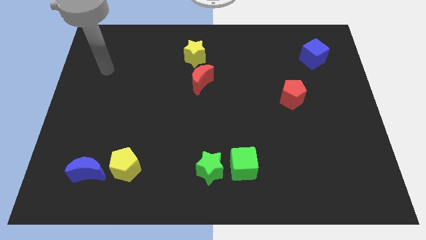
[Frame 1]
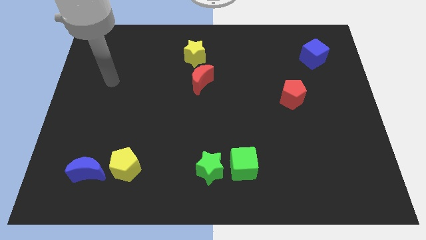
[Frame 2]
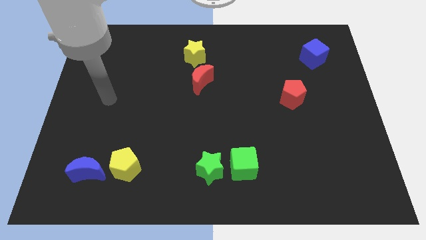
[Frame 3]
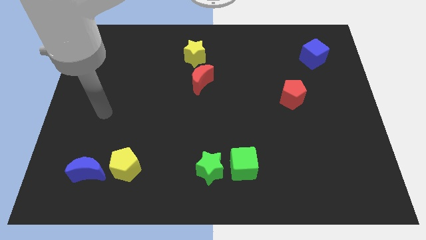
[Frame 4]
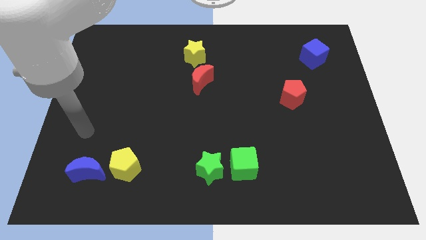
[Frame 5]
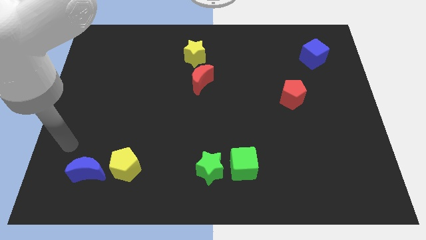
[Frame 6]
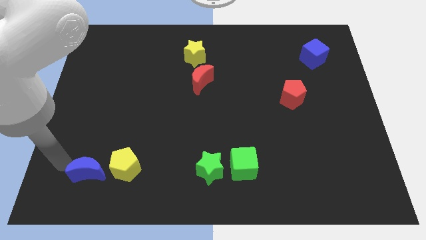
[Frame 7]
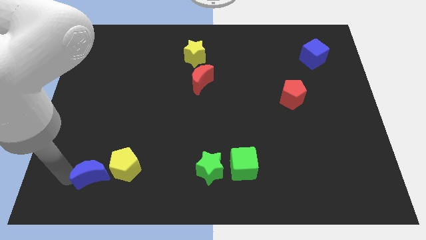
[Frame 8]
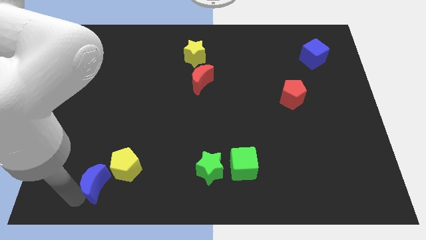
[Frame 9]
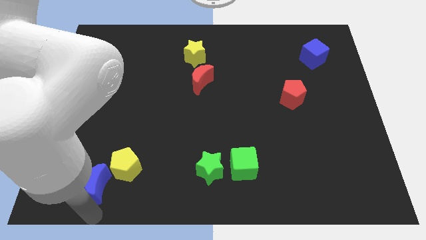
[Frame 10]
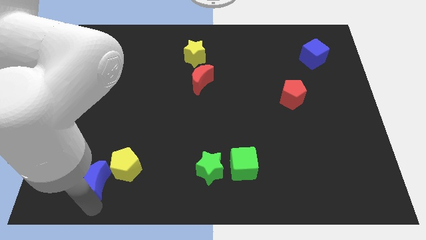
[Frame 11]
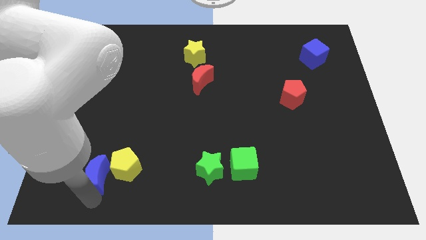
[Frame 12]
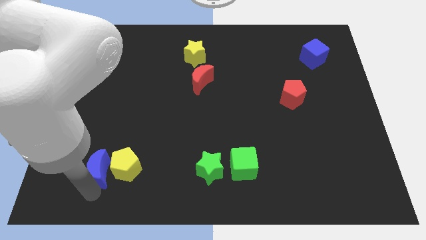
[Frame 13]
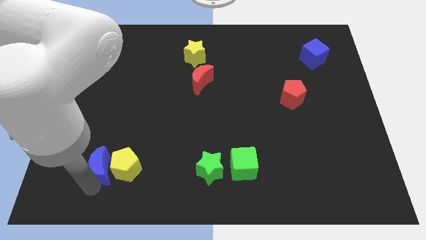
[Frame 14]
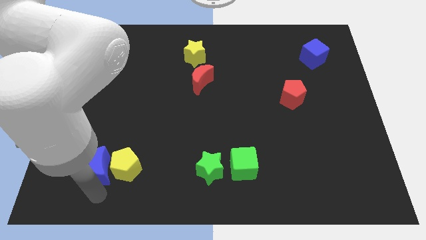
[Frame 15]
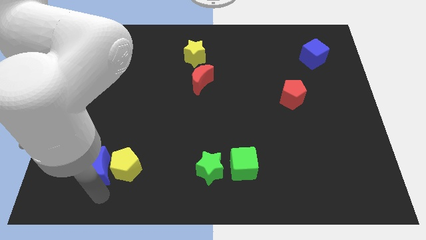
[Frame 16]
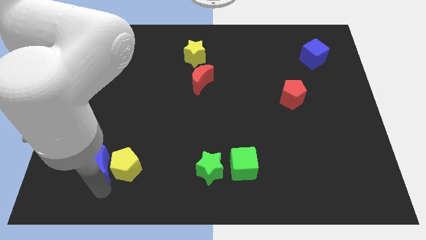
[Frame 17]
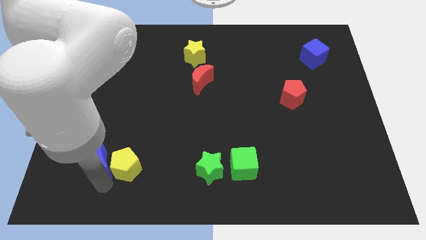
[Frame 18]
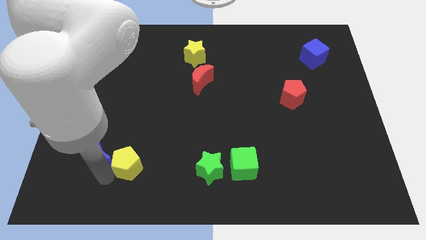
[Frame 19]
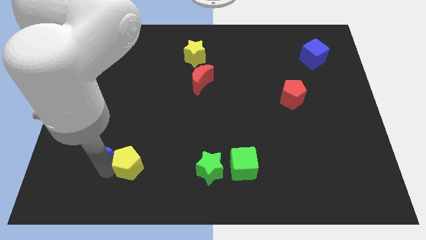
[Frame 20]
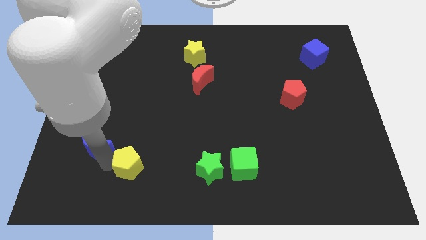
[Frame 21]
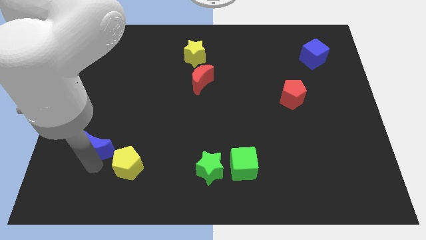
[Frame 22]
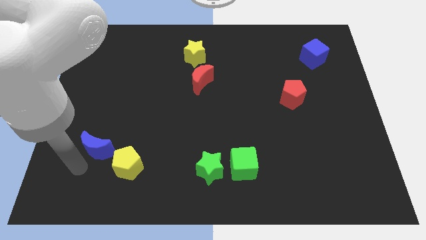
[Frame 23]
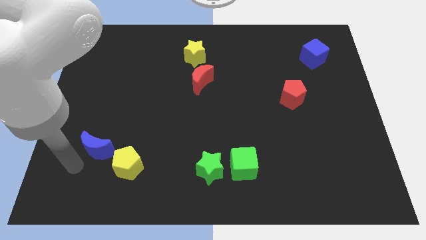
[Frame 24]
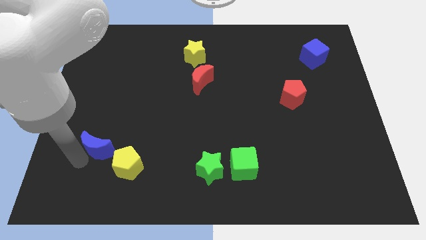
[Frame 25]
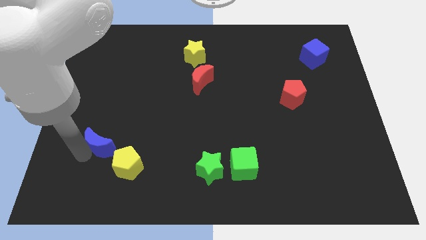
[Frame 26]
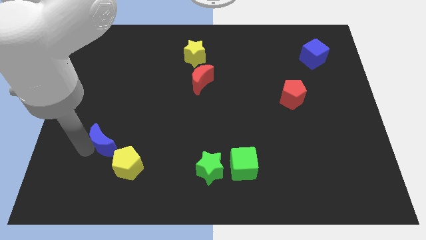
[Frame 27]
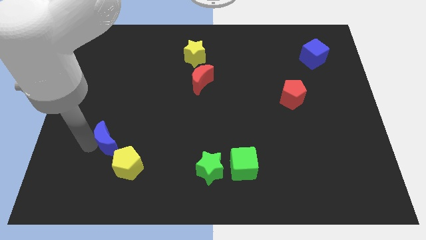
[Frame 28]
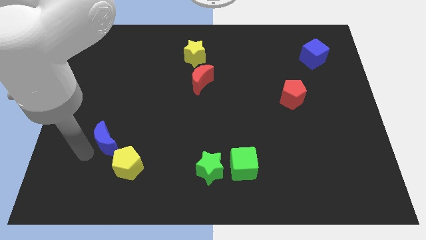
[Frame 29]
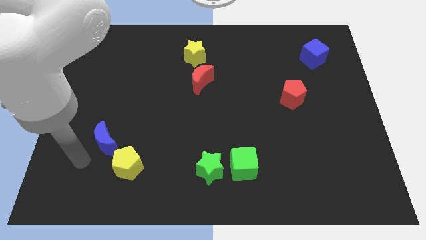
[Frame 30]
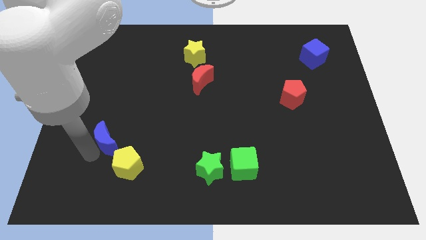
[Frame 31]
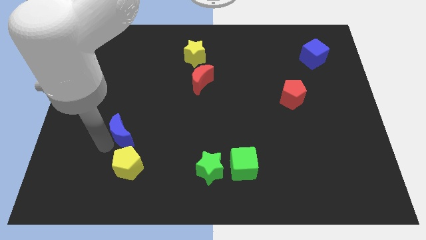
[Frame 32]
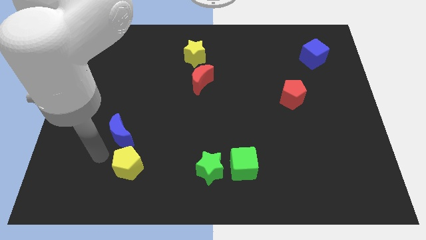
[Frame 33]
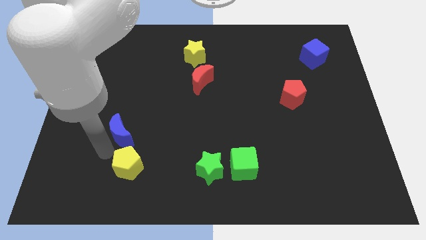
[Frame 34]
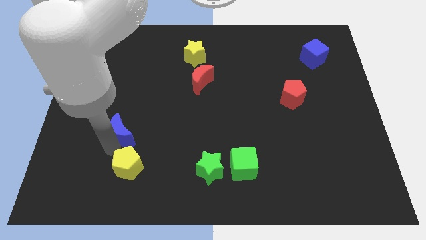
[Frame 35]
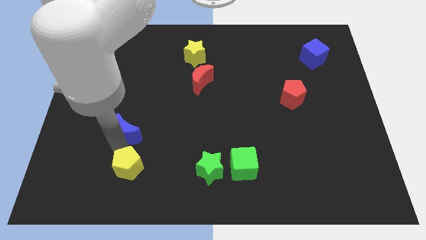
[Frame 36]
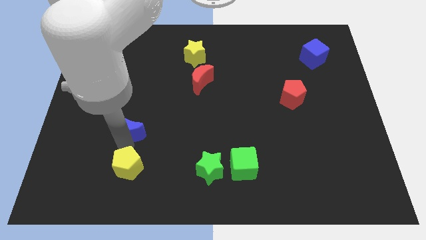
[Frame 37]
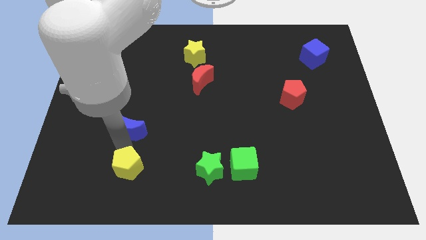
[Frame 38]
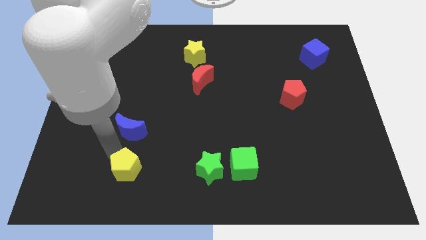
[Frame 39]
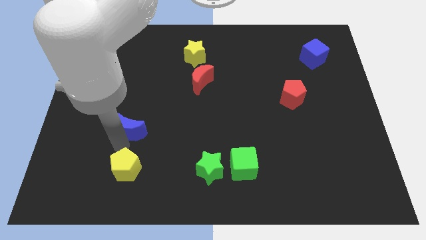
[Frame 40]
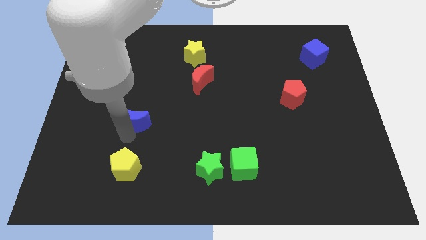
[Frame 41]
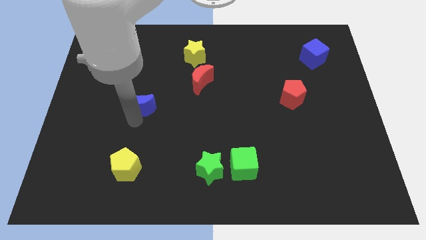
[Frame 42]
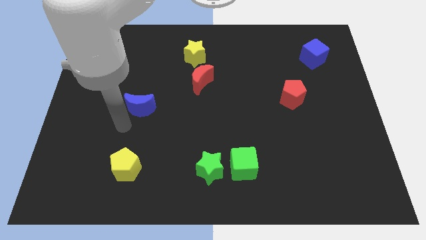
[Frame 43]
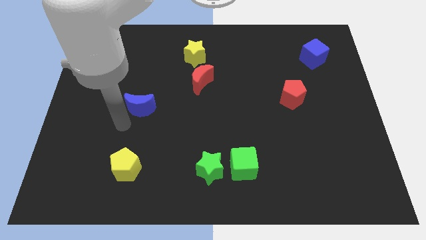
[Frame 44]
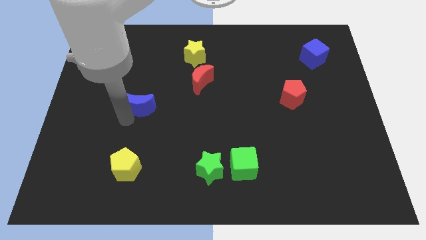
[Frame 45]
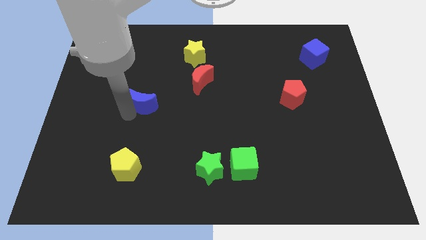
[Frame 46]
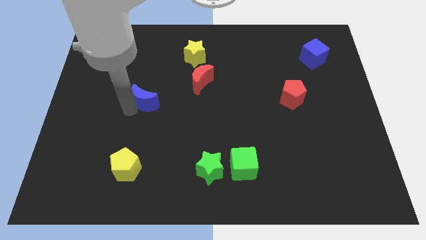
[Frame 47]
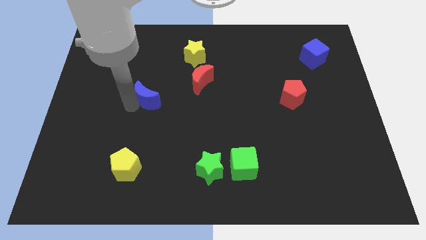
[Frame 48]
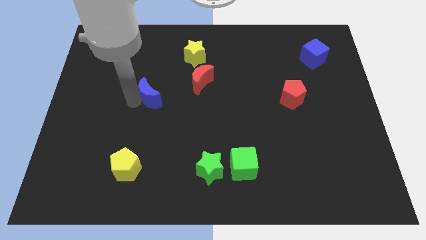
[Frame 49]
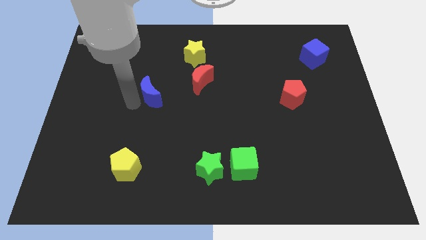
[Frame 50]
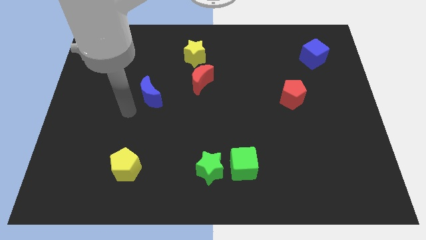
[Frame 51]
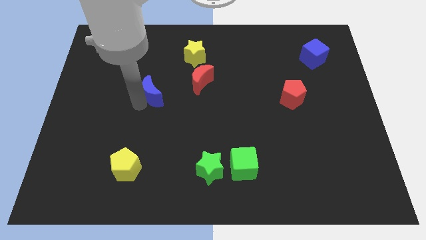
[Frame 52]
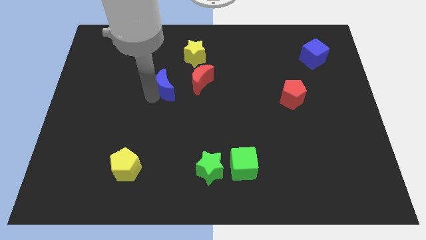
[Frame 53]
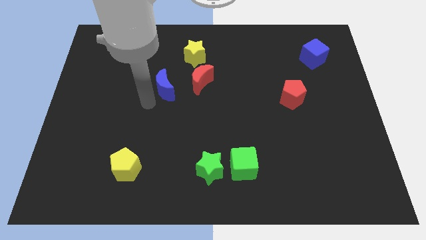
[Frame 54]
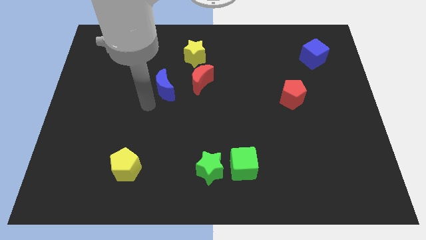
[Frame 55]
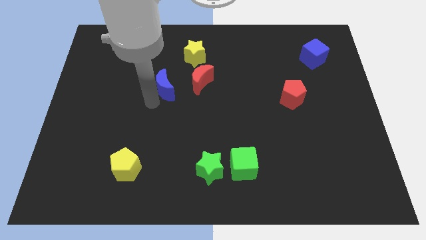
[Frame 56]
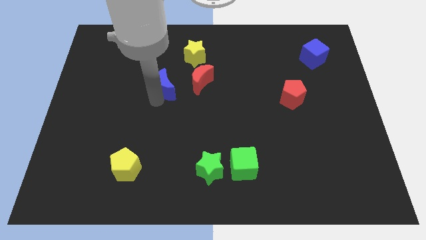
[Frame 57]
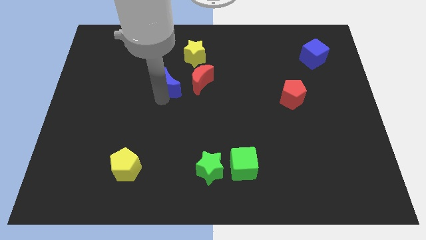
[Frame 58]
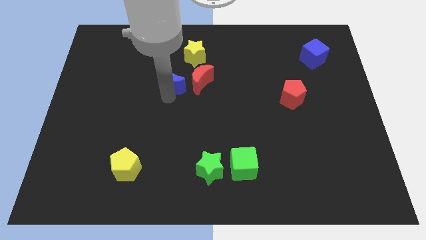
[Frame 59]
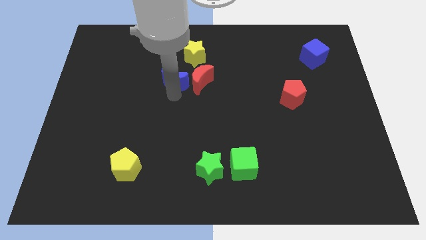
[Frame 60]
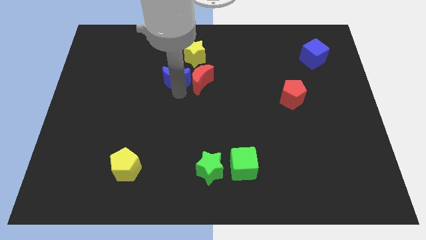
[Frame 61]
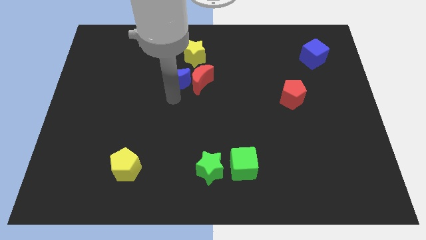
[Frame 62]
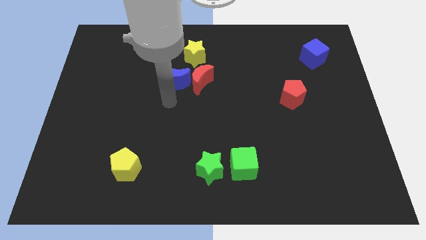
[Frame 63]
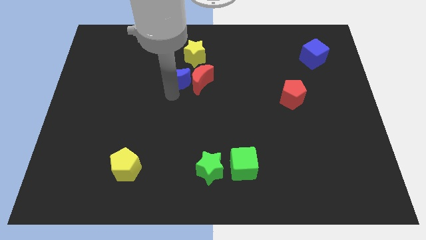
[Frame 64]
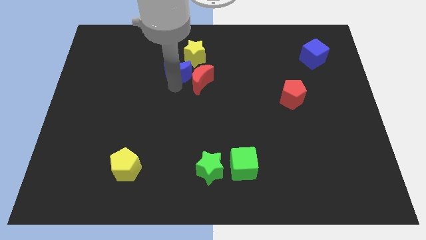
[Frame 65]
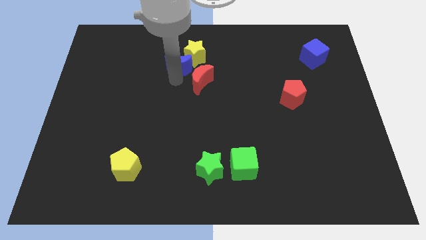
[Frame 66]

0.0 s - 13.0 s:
slide the blue moon to the yellow star

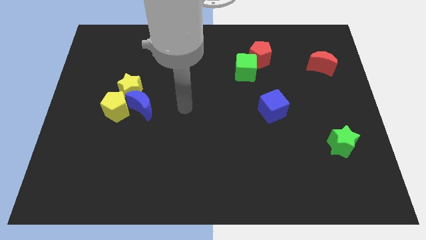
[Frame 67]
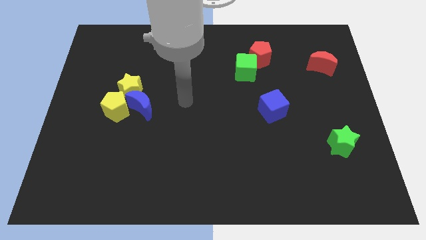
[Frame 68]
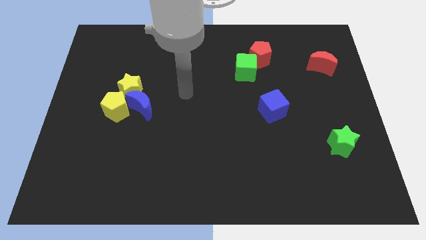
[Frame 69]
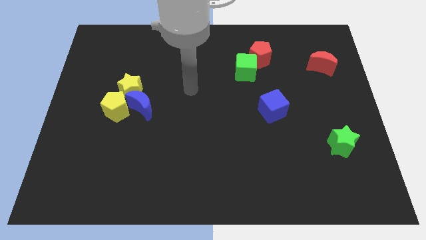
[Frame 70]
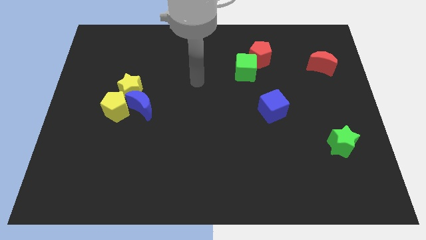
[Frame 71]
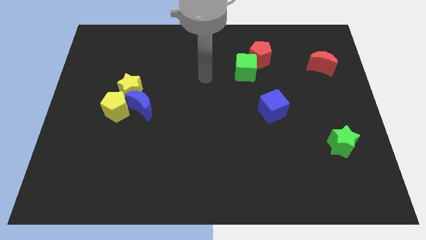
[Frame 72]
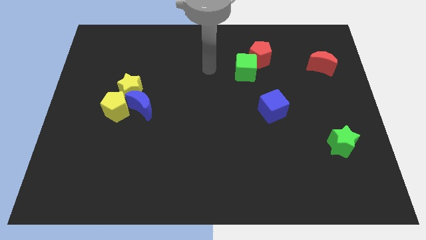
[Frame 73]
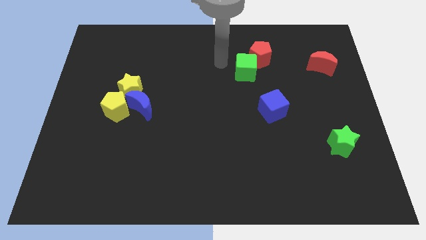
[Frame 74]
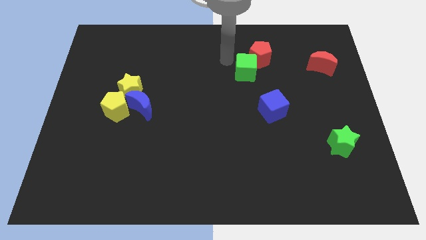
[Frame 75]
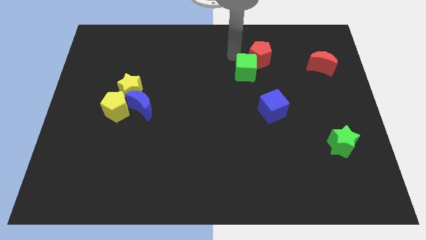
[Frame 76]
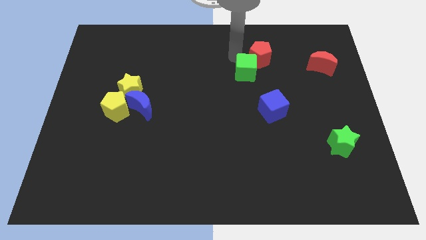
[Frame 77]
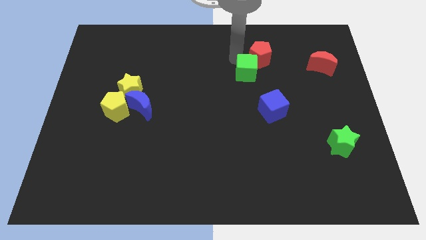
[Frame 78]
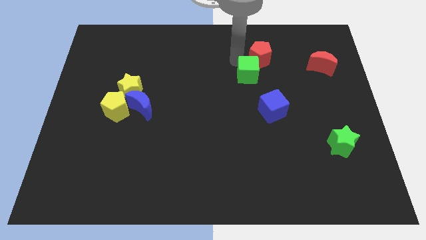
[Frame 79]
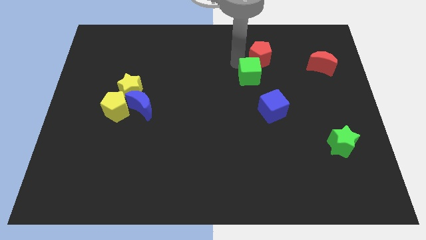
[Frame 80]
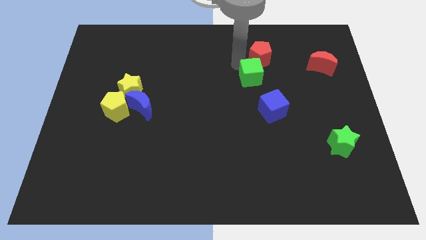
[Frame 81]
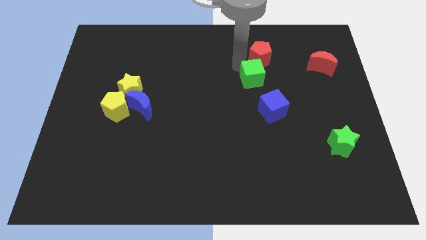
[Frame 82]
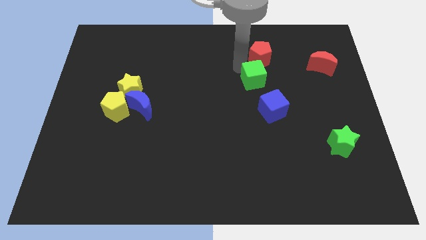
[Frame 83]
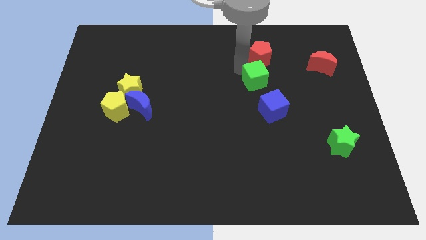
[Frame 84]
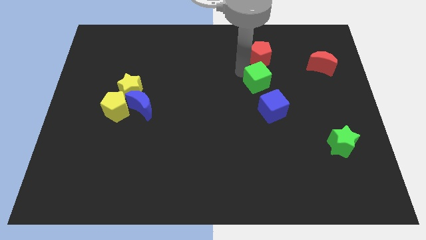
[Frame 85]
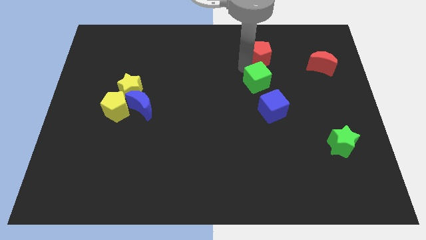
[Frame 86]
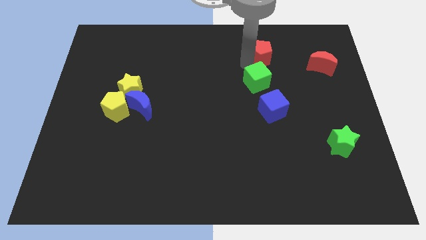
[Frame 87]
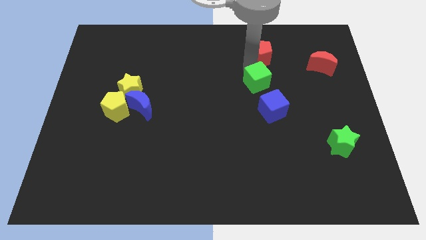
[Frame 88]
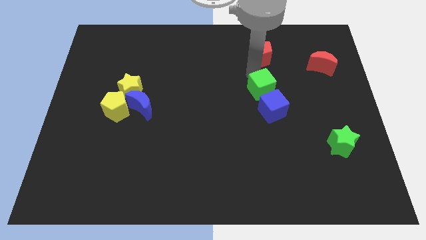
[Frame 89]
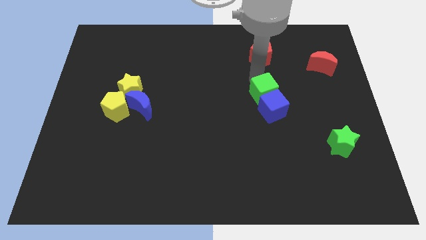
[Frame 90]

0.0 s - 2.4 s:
put the green cube next to the blue cube
